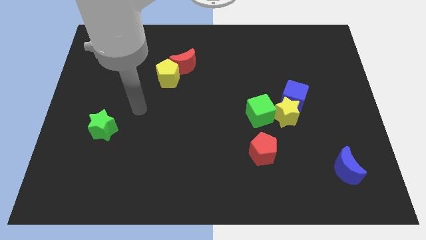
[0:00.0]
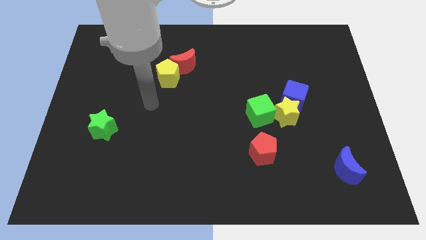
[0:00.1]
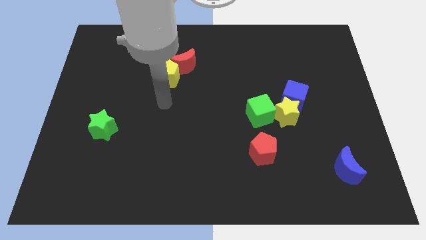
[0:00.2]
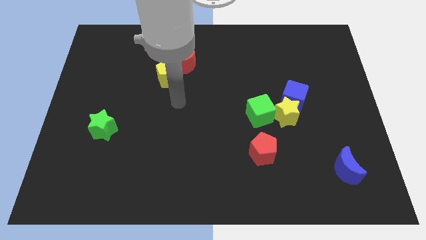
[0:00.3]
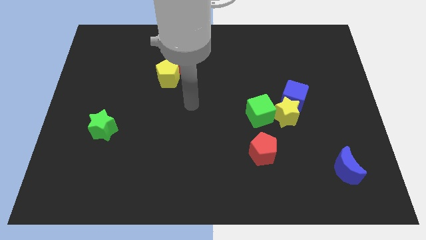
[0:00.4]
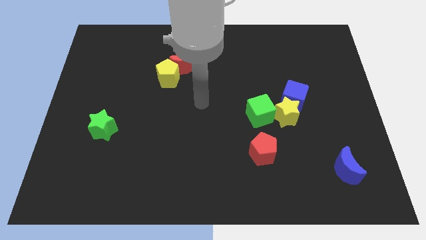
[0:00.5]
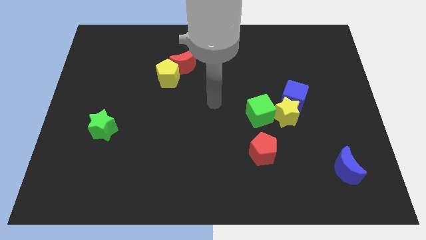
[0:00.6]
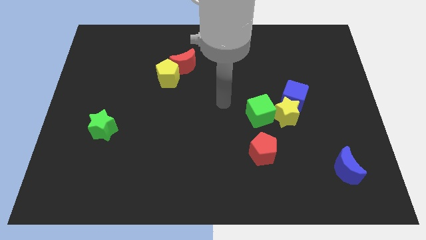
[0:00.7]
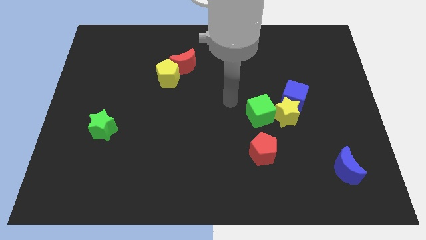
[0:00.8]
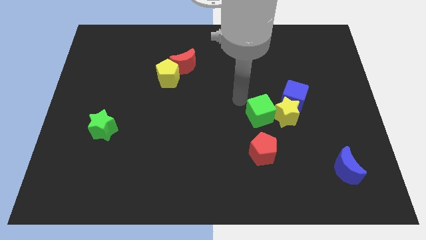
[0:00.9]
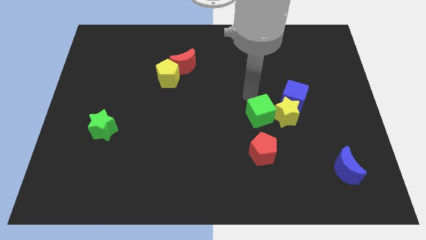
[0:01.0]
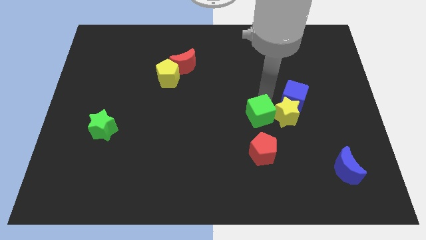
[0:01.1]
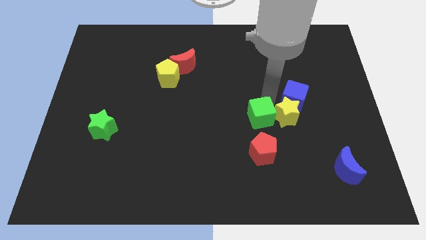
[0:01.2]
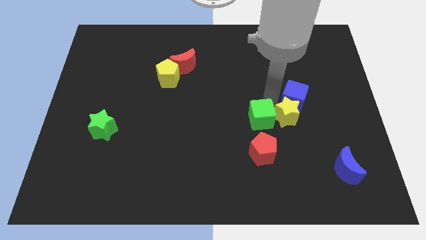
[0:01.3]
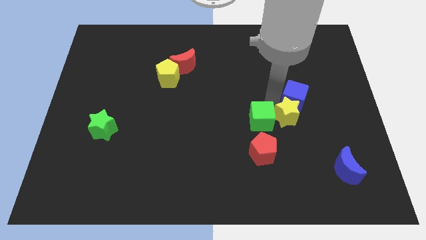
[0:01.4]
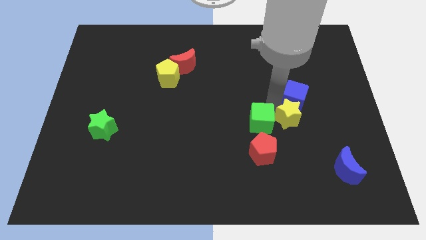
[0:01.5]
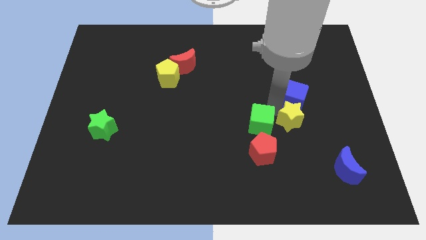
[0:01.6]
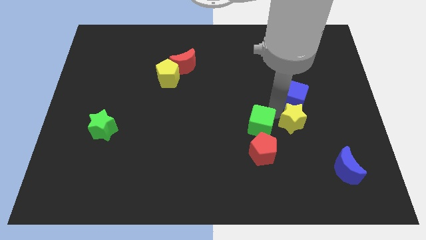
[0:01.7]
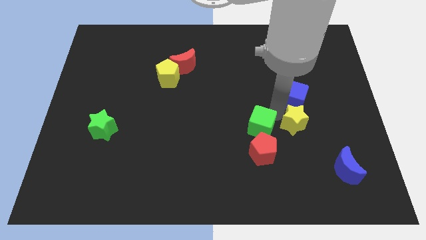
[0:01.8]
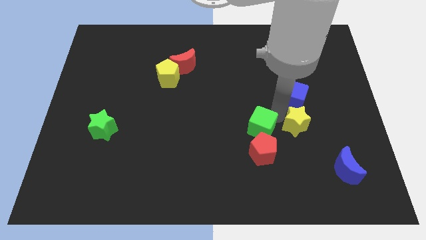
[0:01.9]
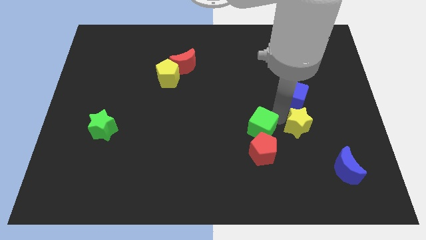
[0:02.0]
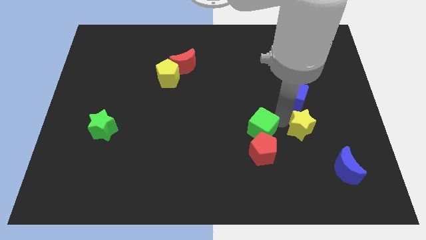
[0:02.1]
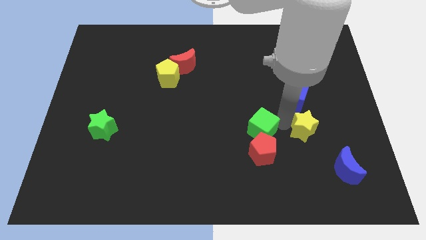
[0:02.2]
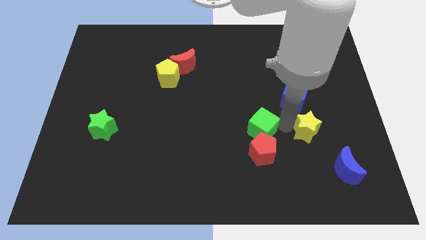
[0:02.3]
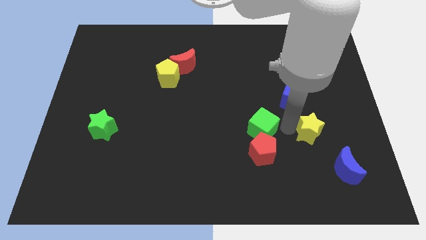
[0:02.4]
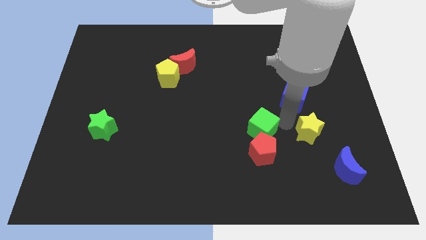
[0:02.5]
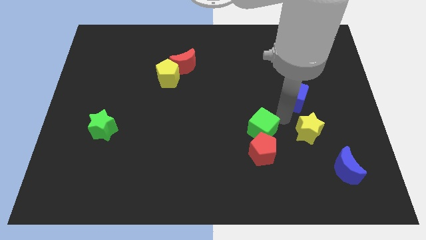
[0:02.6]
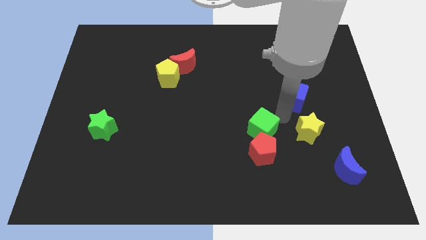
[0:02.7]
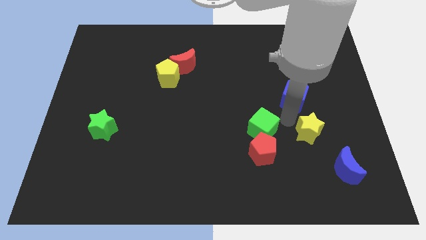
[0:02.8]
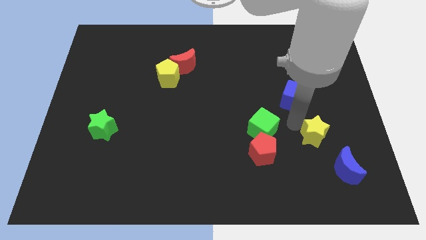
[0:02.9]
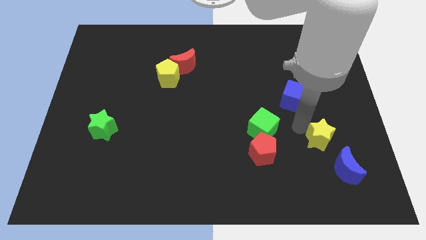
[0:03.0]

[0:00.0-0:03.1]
pull the yellow star apart from the blue cube and green cube

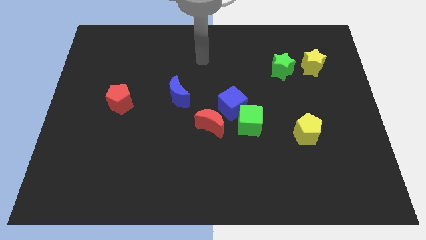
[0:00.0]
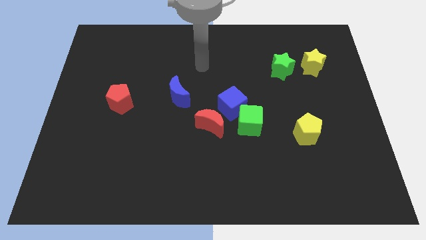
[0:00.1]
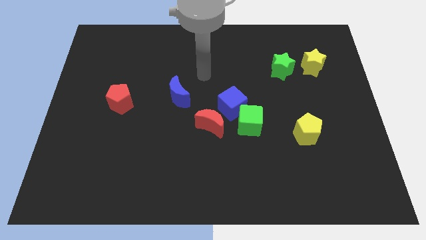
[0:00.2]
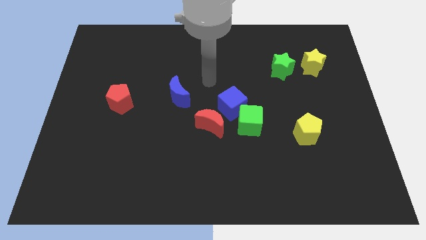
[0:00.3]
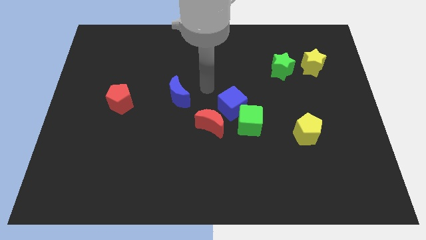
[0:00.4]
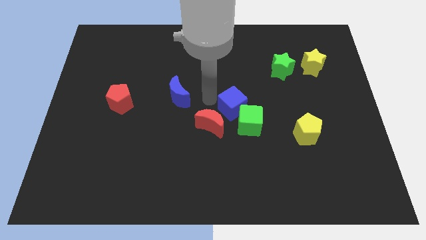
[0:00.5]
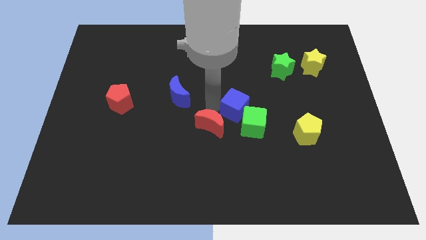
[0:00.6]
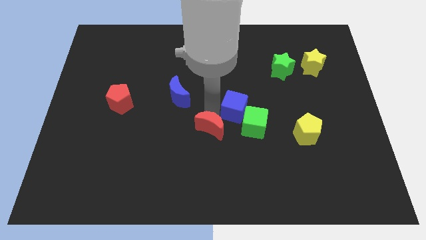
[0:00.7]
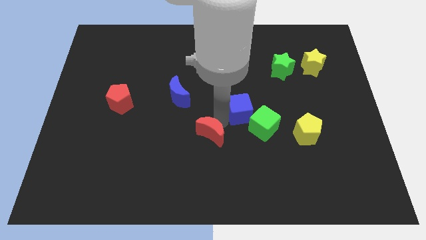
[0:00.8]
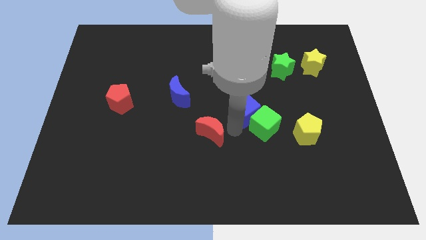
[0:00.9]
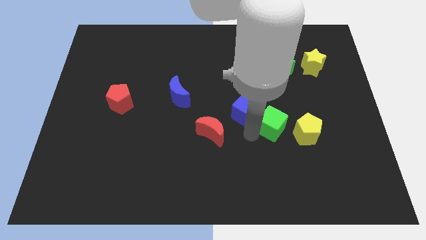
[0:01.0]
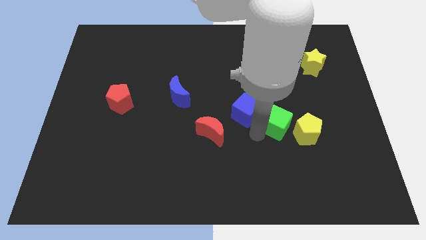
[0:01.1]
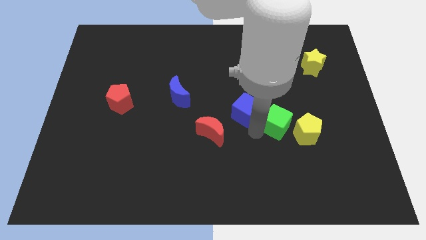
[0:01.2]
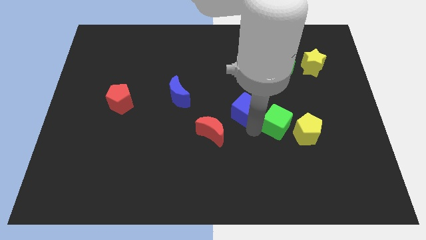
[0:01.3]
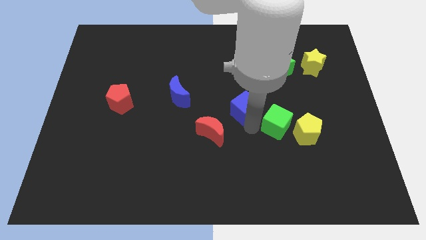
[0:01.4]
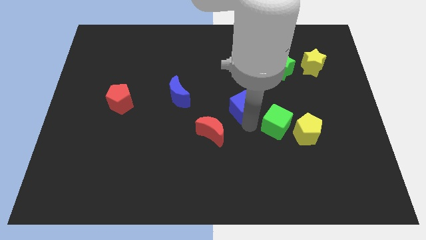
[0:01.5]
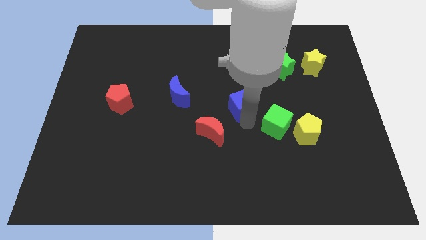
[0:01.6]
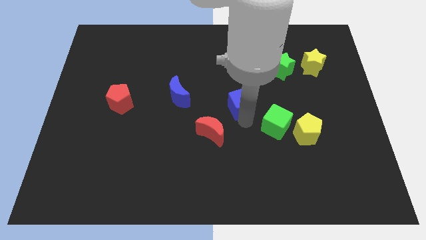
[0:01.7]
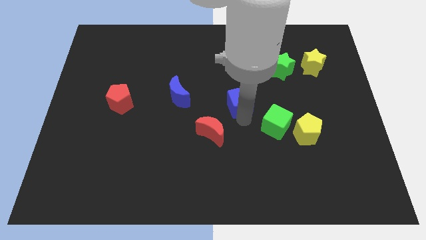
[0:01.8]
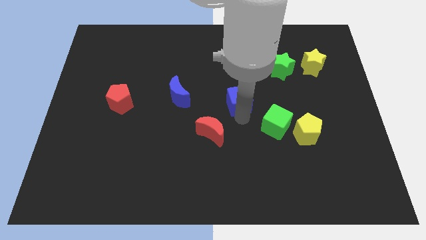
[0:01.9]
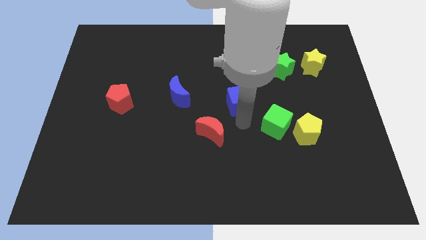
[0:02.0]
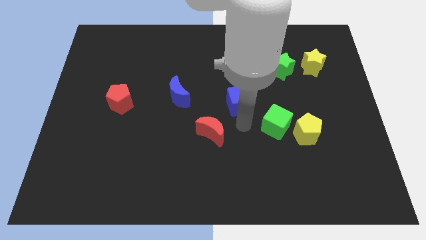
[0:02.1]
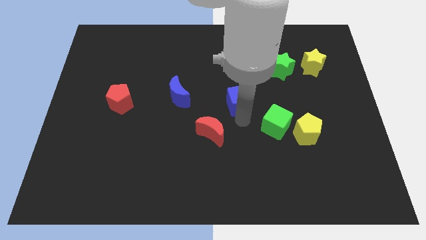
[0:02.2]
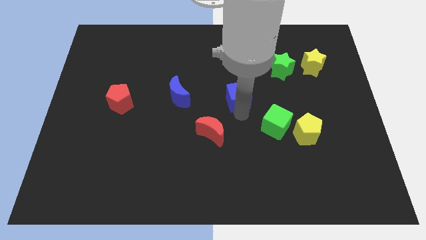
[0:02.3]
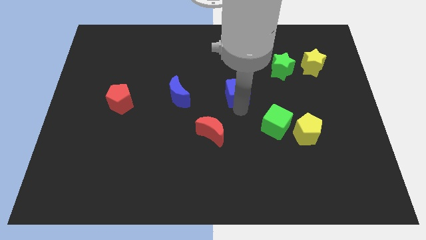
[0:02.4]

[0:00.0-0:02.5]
move the blue cube away from the green cube and red moon

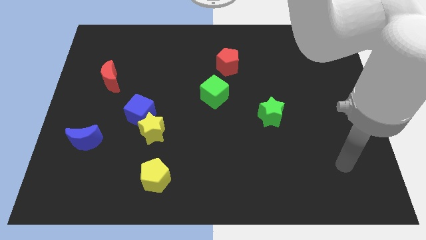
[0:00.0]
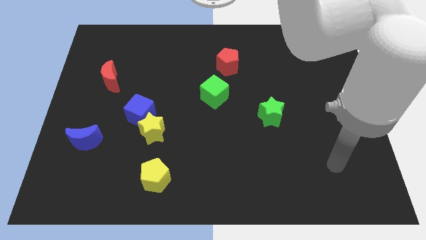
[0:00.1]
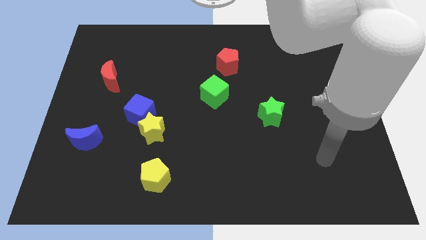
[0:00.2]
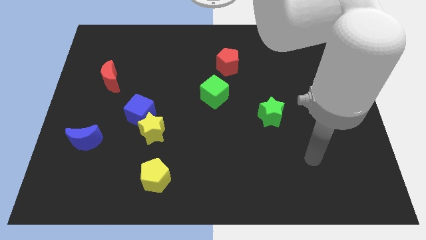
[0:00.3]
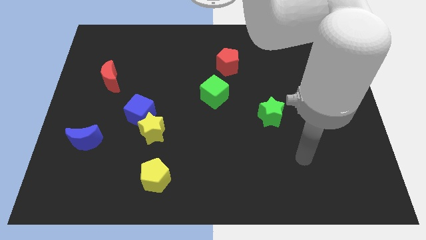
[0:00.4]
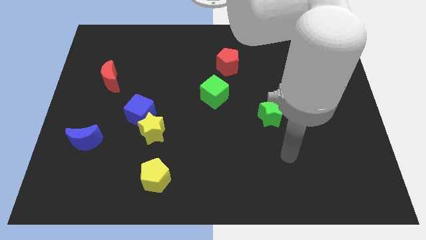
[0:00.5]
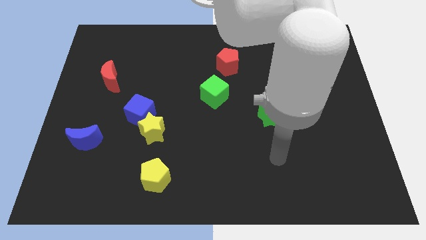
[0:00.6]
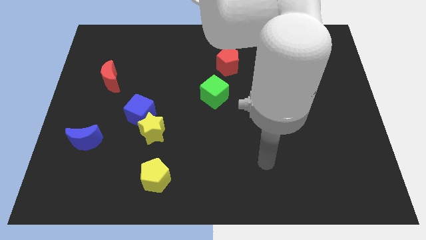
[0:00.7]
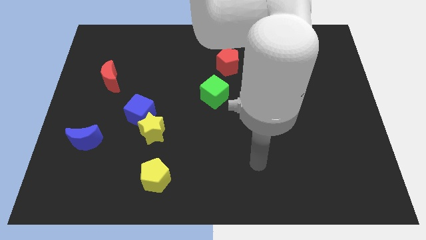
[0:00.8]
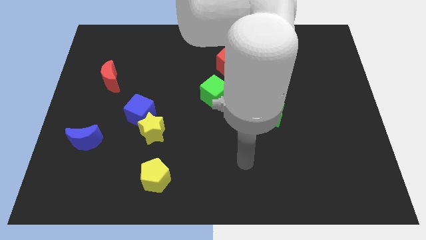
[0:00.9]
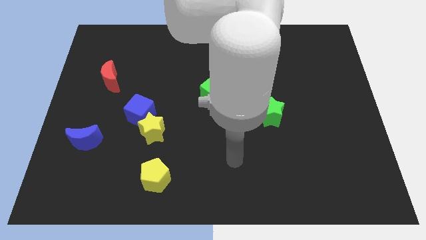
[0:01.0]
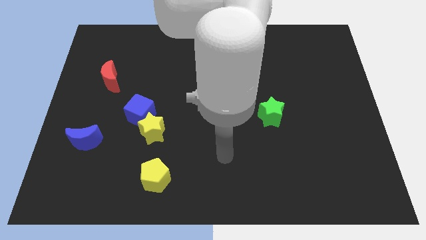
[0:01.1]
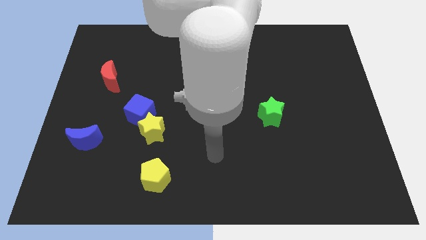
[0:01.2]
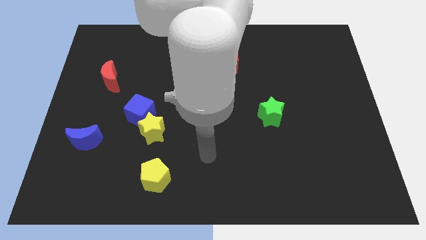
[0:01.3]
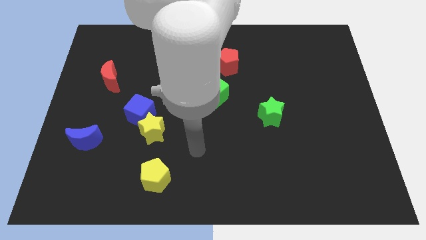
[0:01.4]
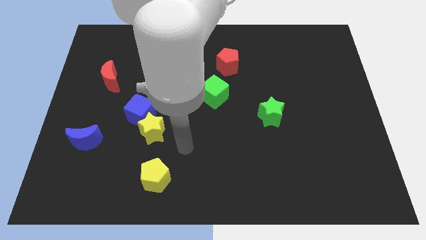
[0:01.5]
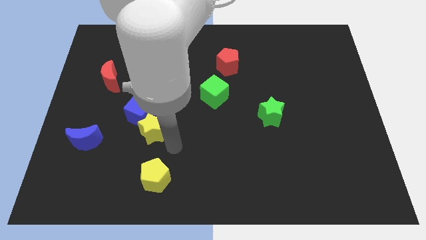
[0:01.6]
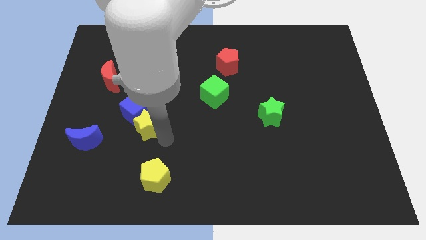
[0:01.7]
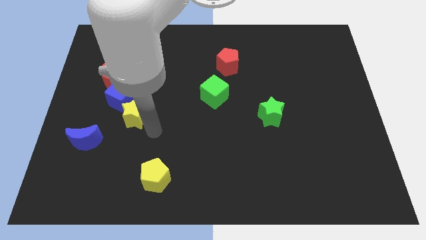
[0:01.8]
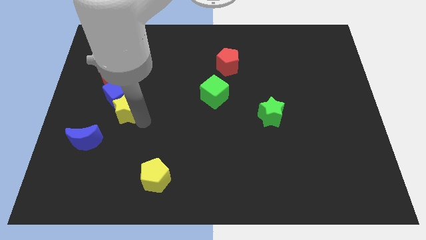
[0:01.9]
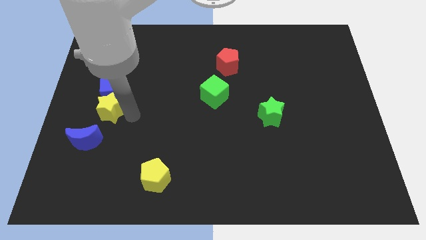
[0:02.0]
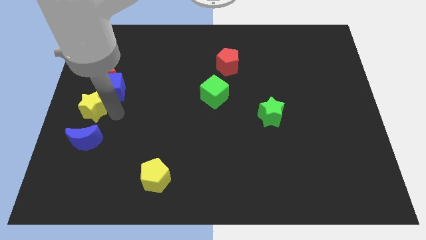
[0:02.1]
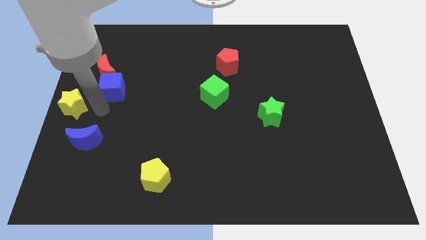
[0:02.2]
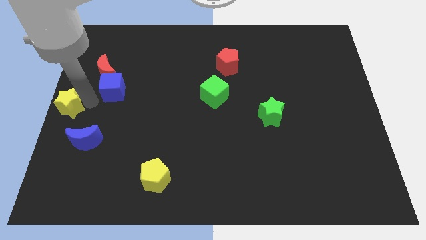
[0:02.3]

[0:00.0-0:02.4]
move the blue cube away from the yellow star

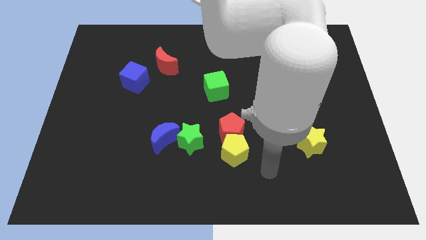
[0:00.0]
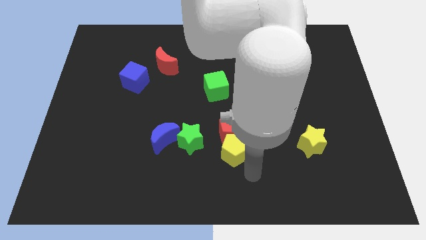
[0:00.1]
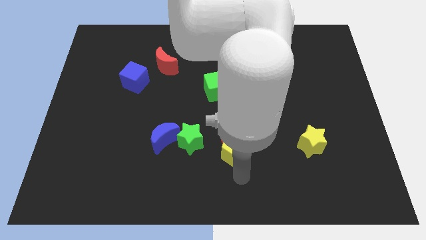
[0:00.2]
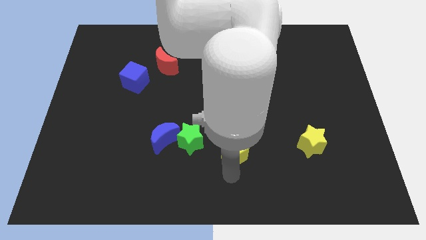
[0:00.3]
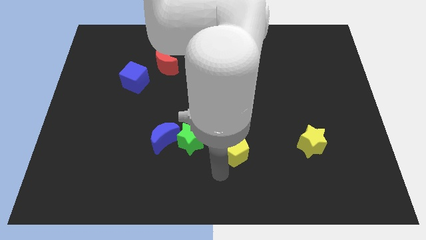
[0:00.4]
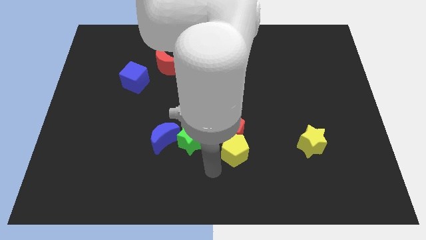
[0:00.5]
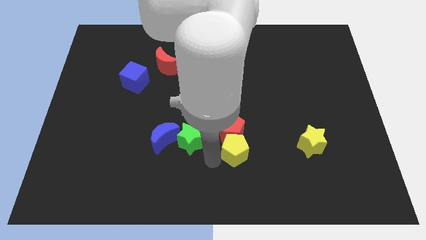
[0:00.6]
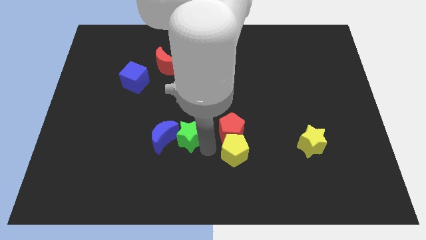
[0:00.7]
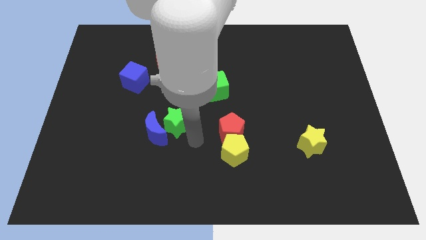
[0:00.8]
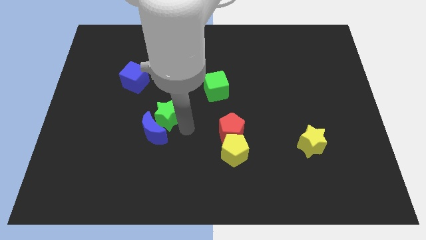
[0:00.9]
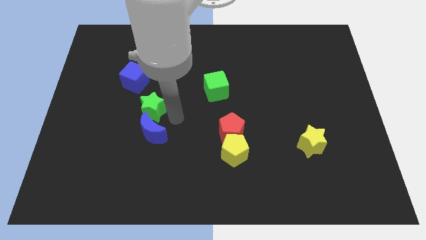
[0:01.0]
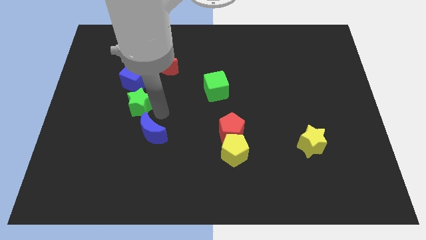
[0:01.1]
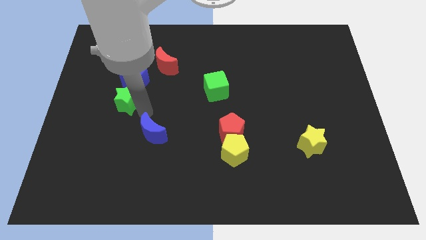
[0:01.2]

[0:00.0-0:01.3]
separate the blue moon from the green star
